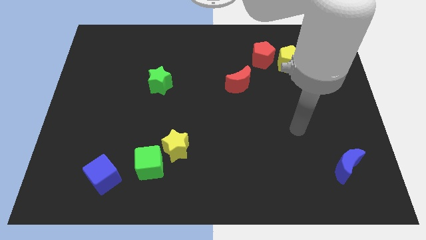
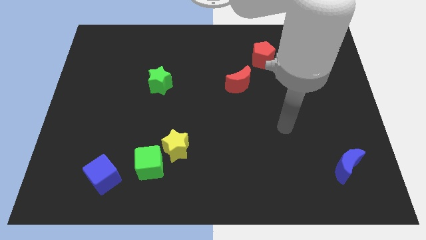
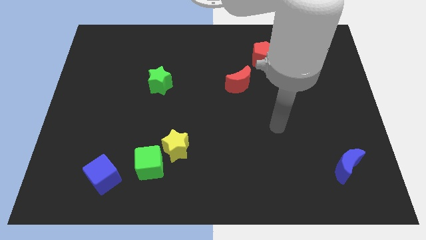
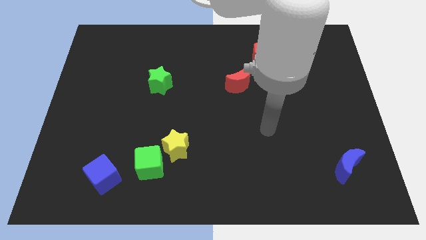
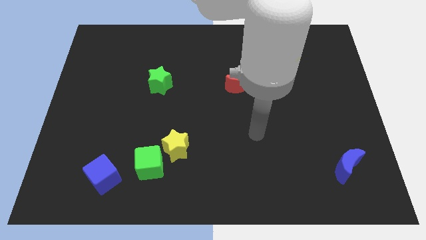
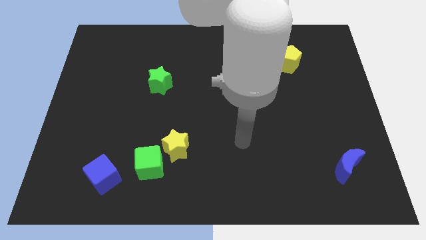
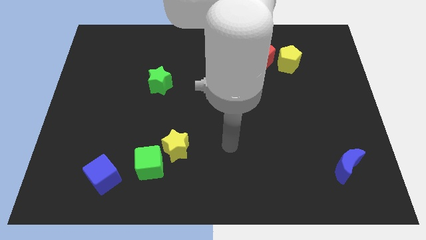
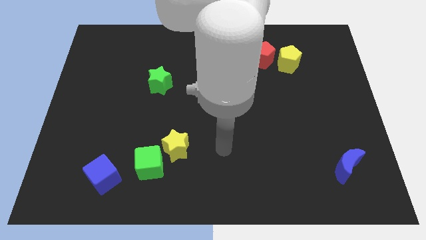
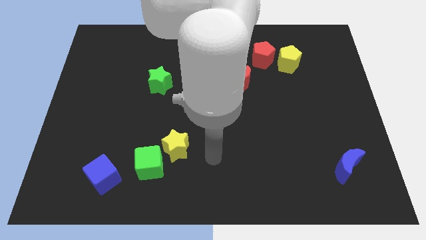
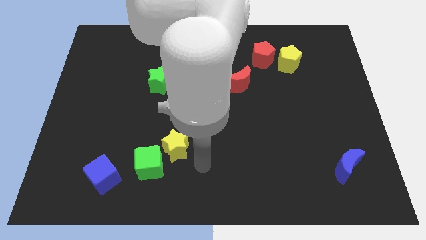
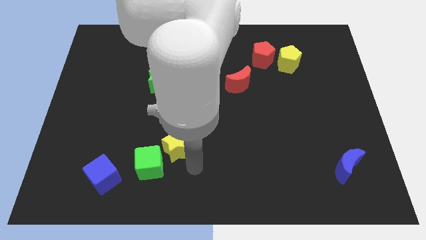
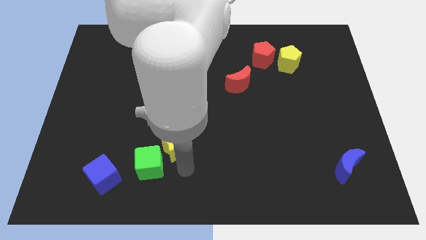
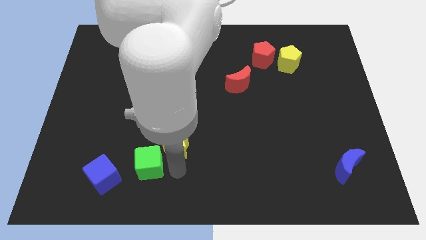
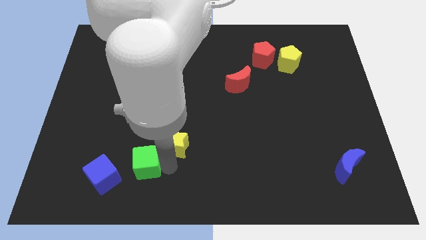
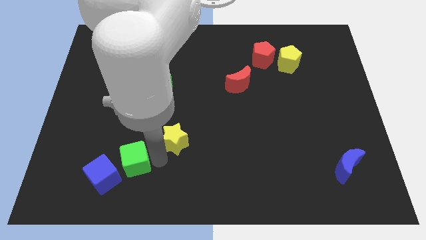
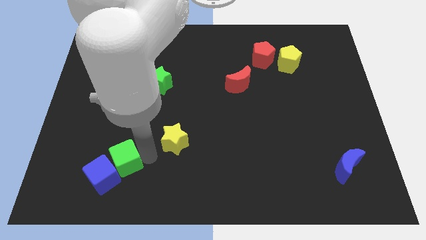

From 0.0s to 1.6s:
pull the yellow star apart from the green cube

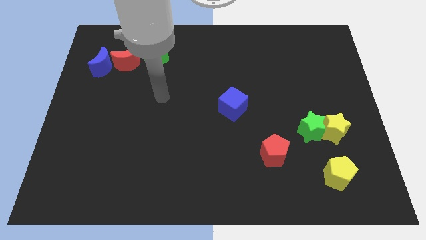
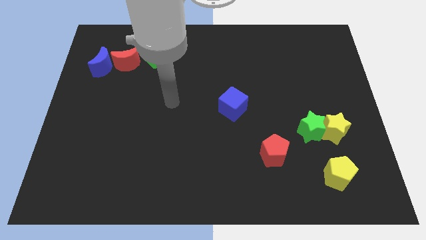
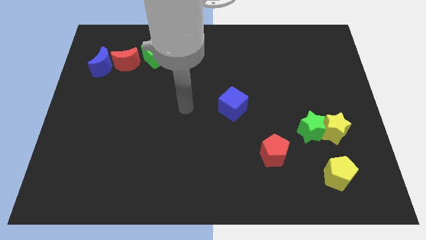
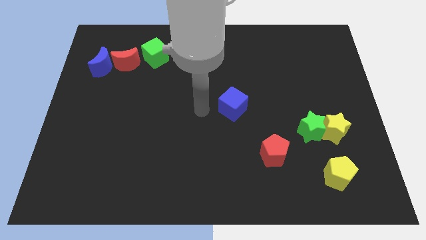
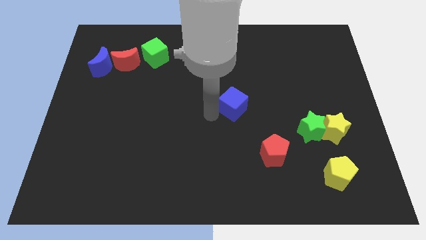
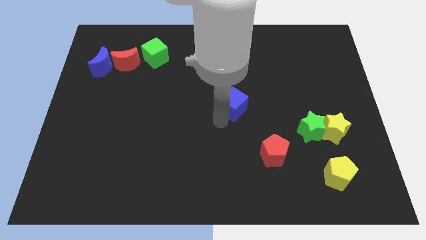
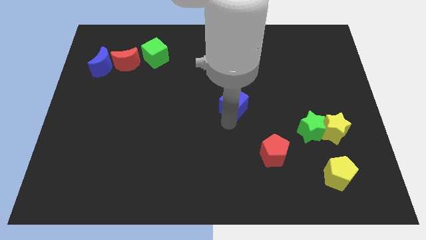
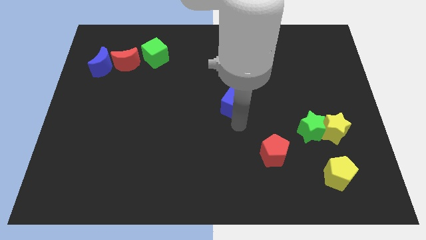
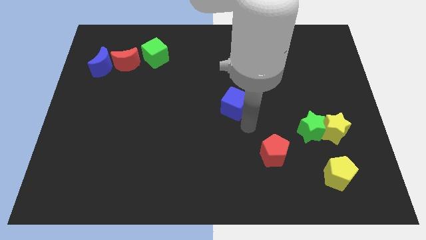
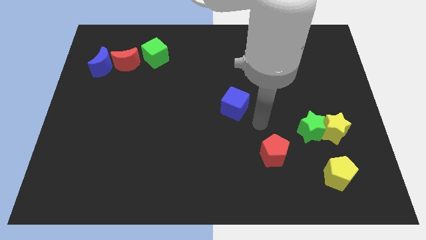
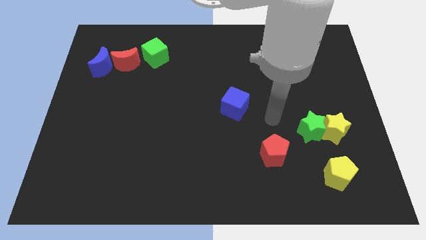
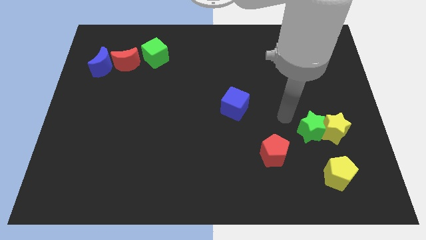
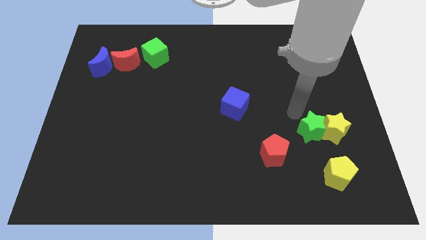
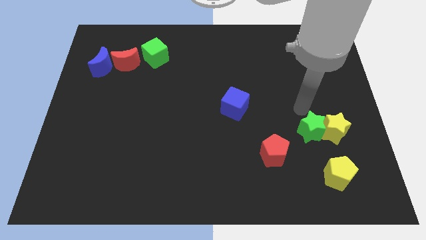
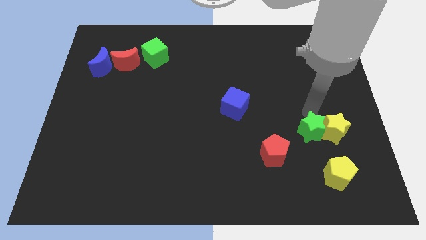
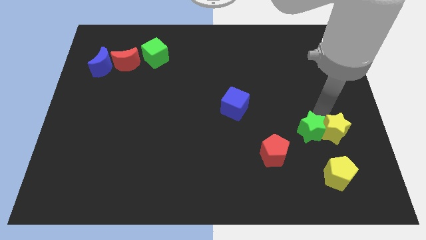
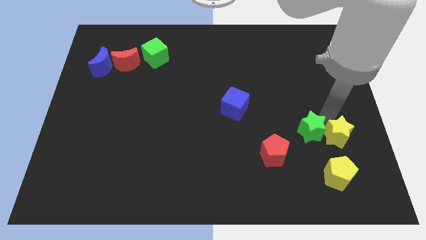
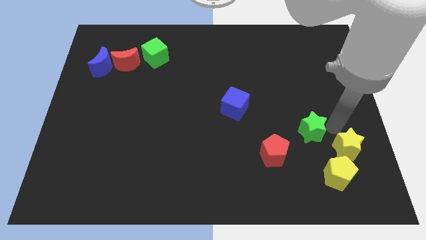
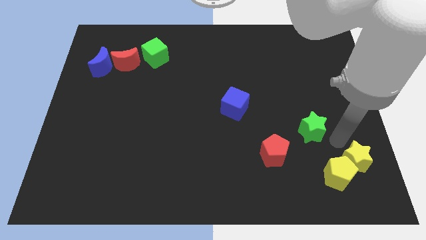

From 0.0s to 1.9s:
separate the green star from the yellow star

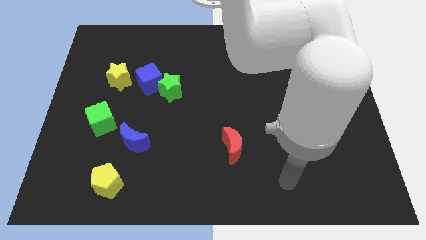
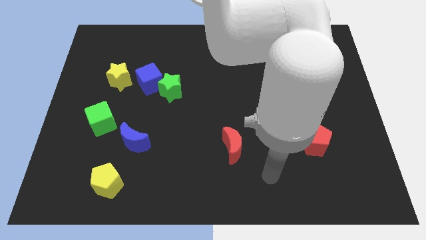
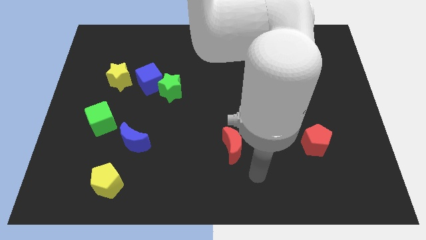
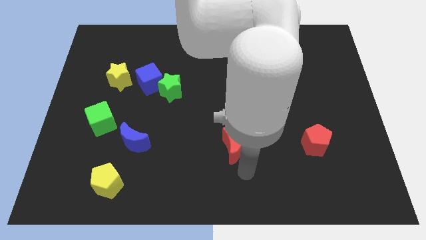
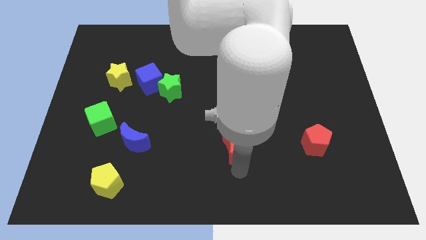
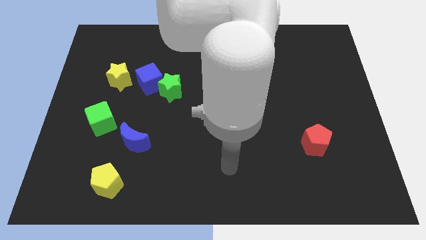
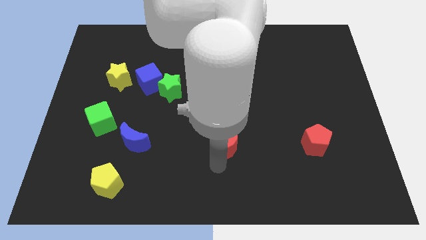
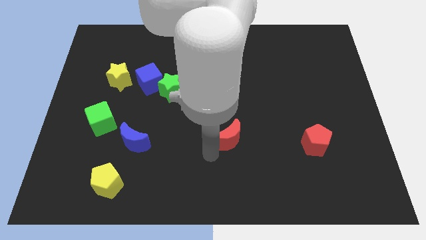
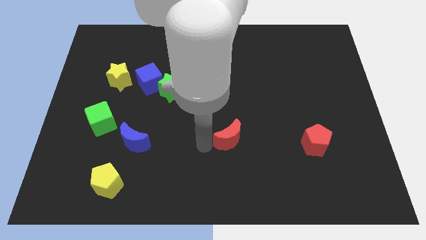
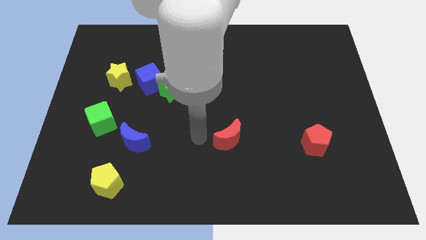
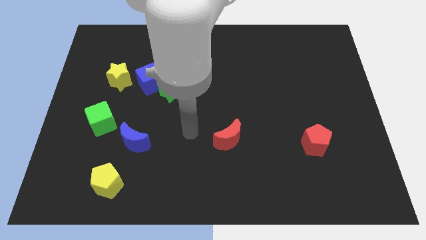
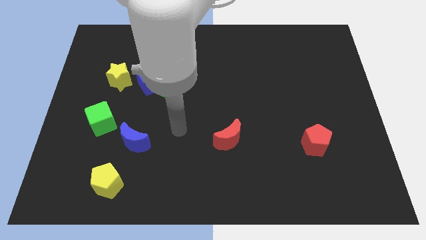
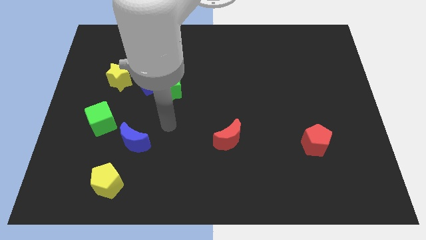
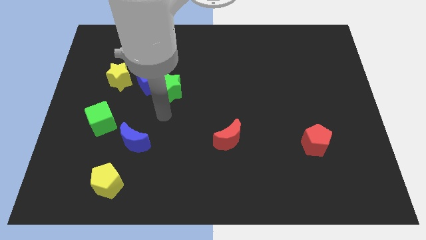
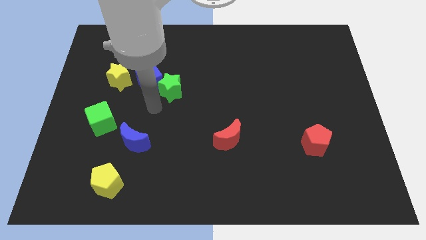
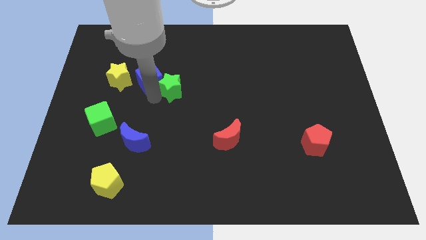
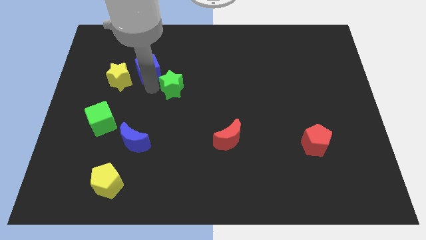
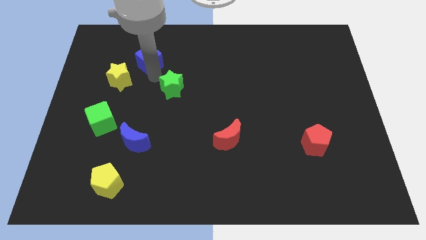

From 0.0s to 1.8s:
pull the green star apart from the blue cube

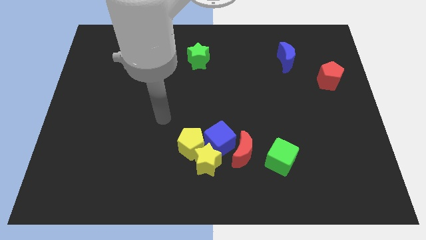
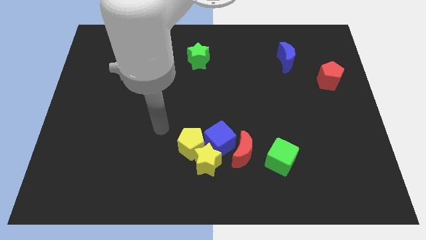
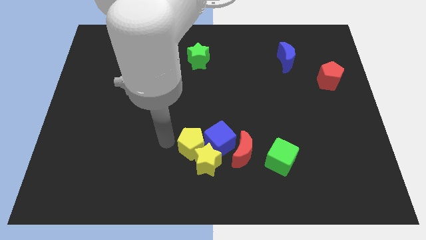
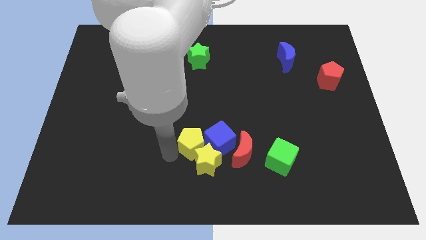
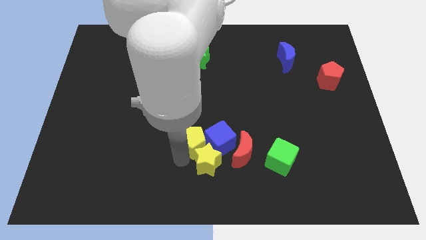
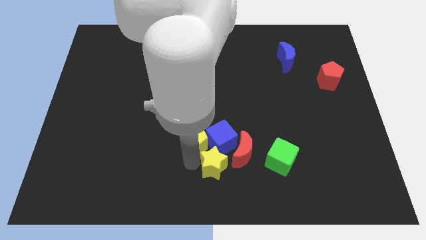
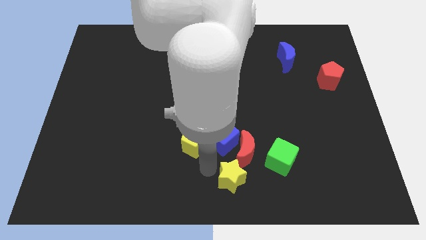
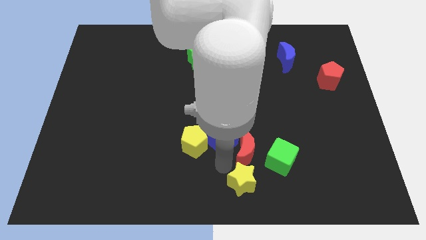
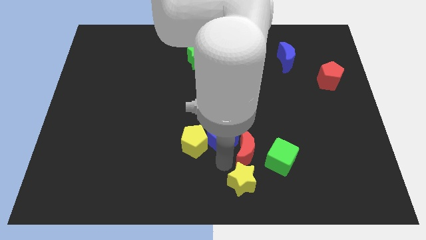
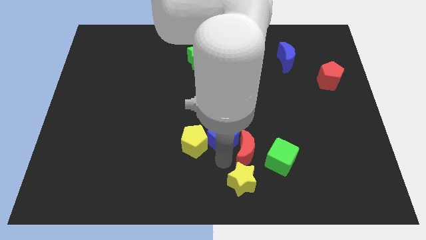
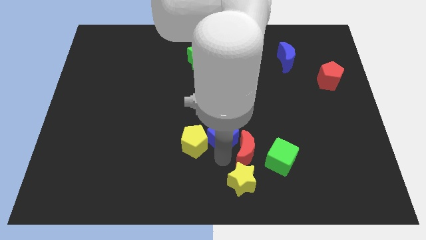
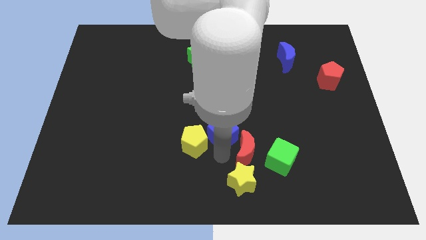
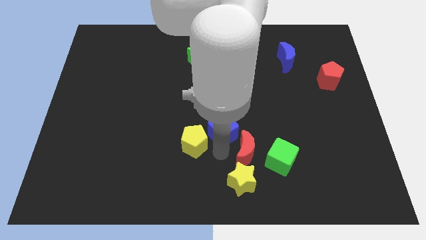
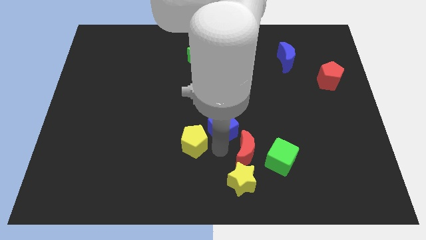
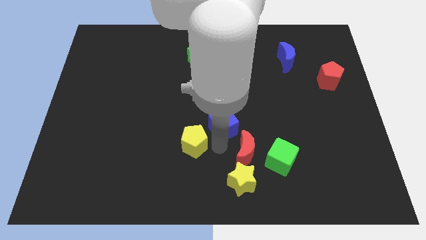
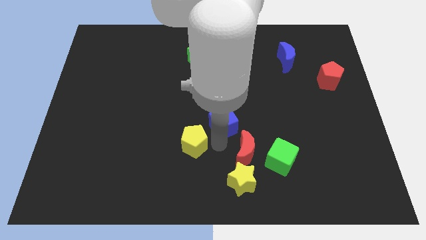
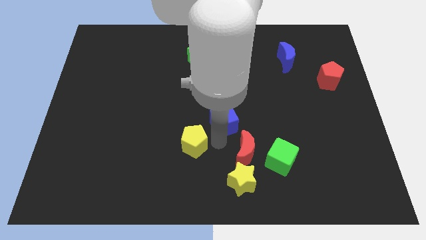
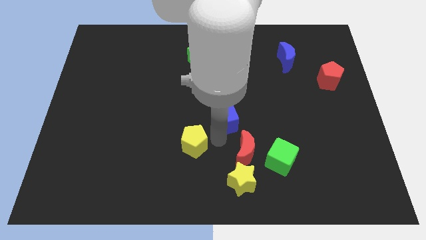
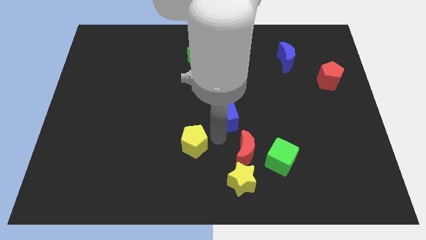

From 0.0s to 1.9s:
separate the blue cube from the red moon, yellow star, and yellow pentagon

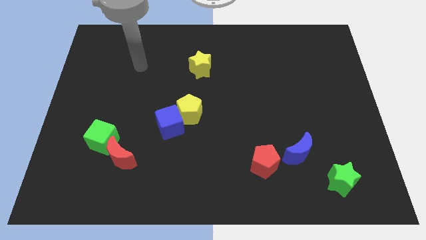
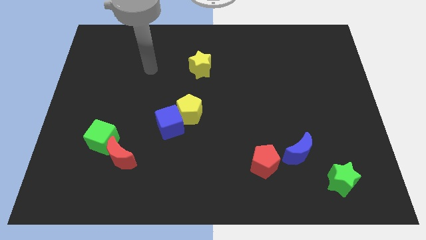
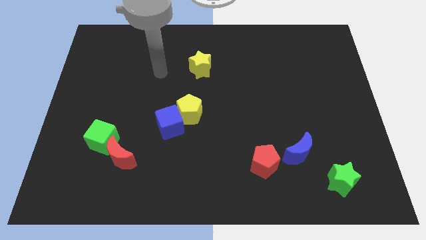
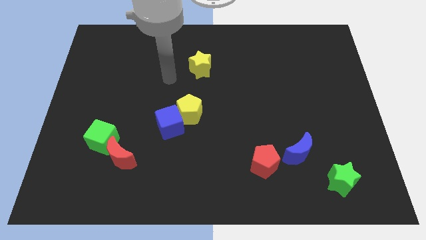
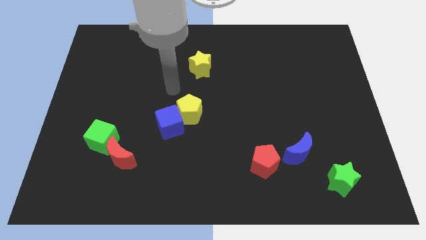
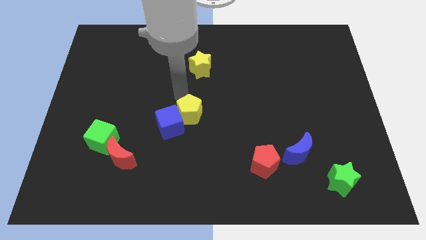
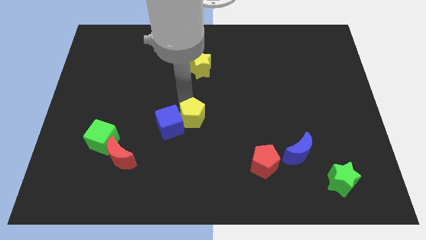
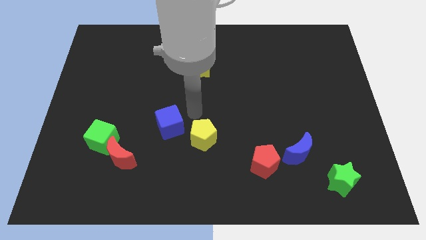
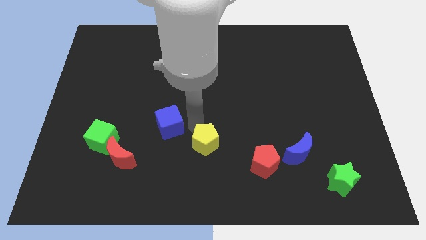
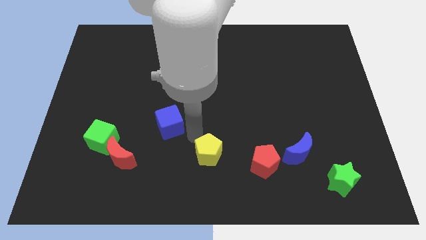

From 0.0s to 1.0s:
separate the blue cube from the yellow pentagon

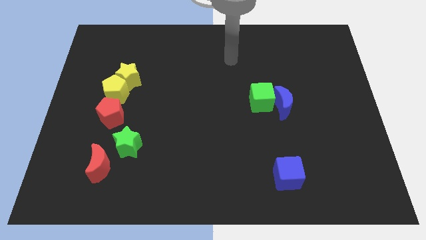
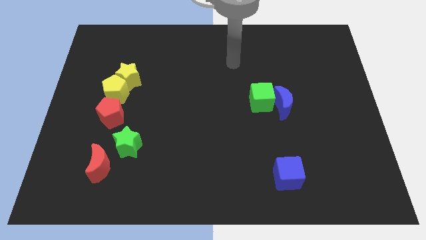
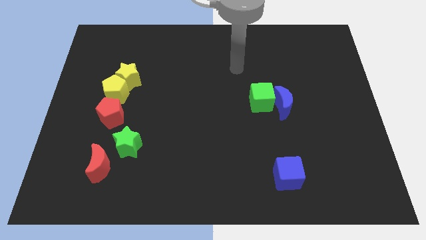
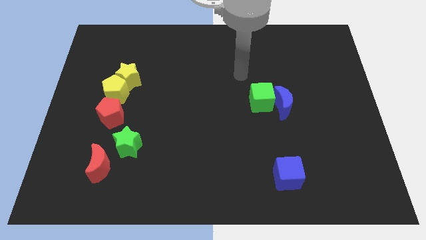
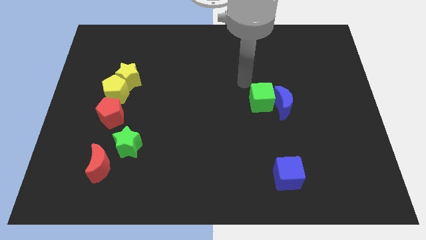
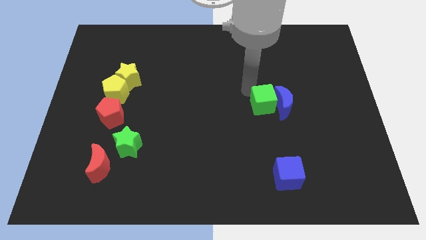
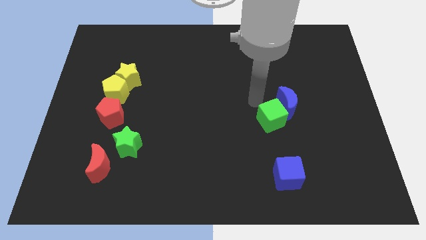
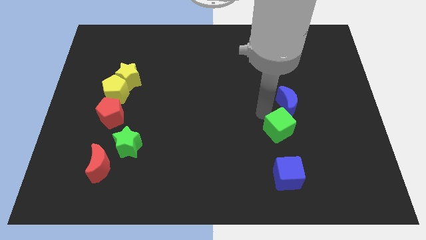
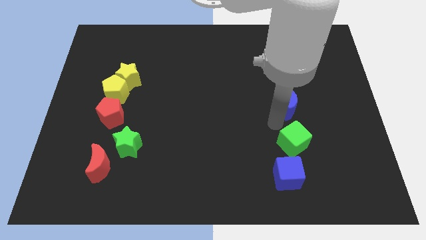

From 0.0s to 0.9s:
pull the blue moon apart from the green cube
